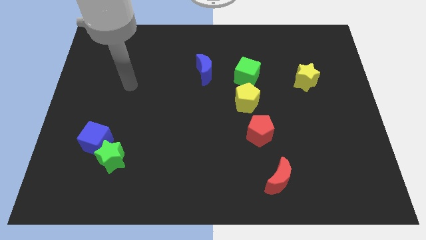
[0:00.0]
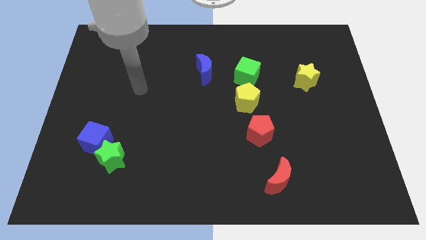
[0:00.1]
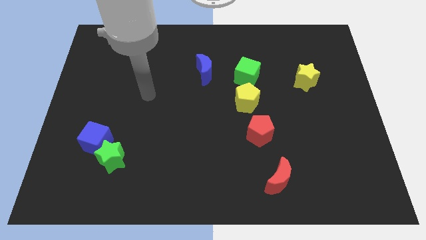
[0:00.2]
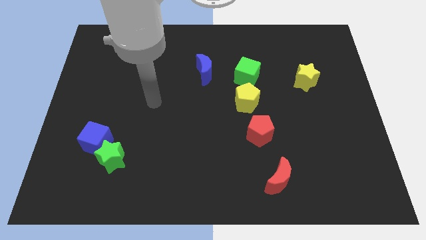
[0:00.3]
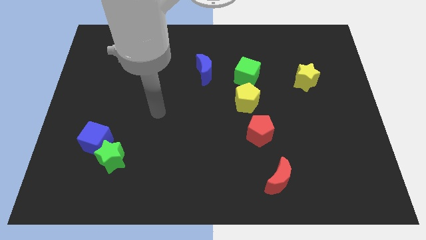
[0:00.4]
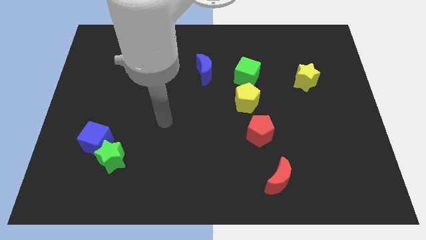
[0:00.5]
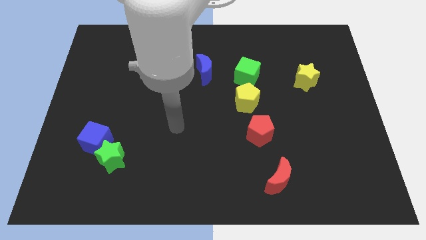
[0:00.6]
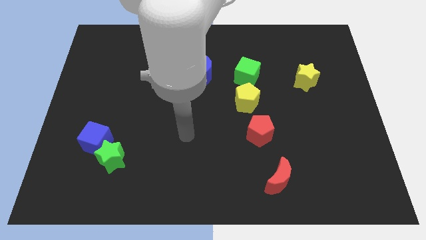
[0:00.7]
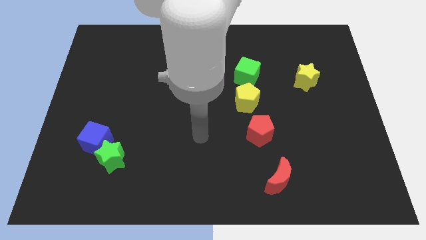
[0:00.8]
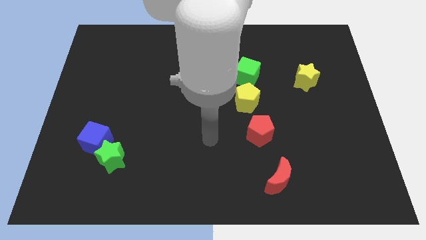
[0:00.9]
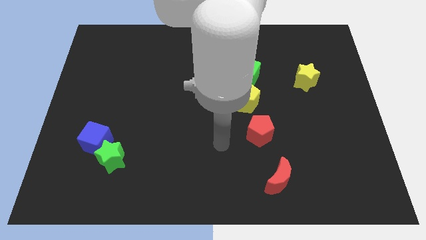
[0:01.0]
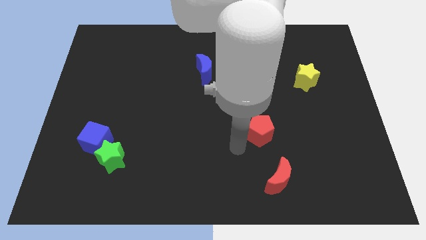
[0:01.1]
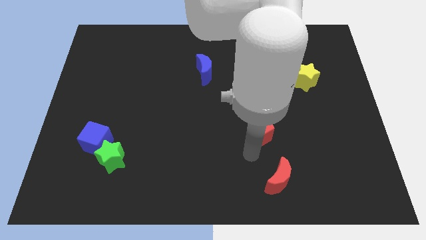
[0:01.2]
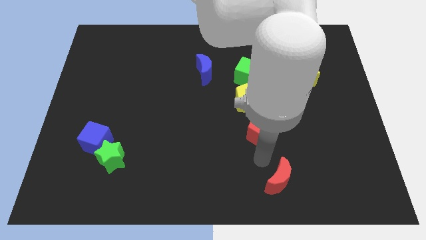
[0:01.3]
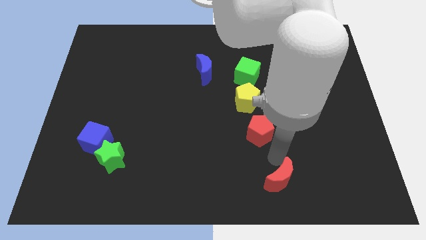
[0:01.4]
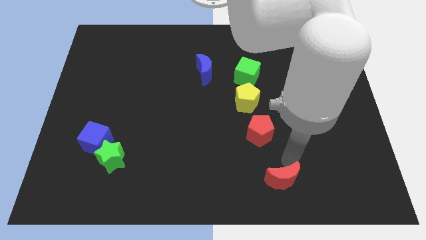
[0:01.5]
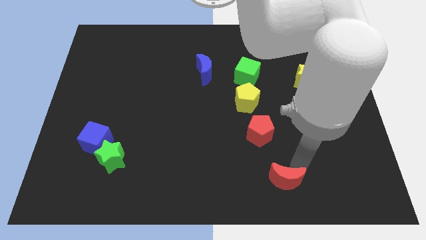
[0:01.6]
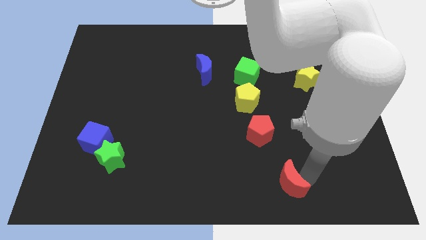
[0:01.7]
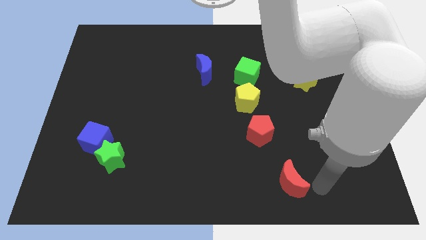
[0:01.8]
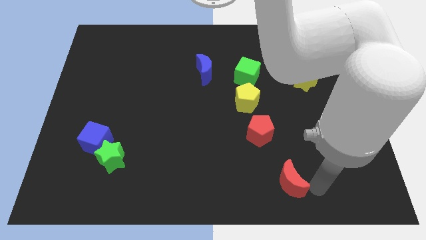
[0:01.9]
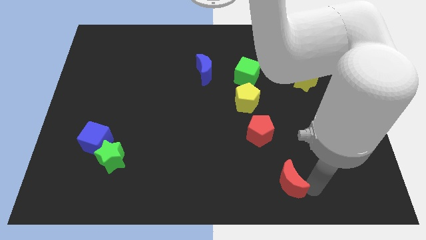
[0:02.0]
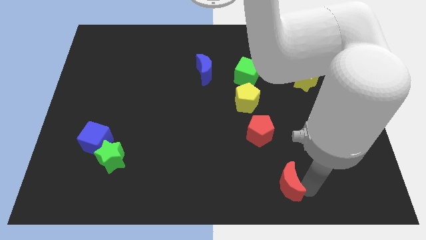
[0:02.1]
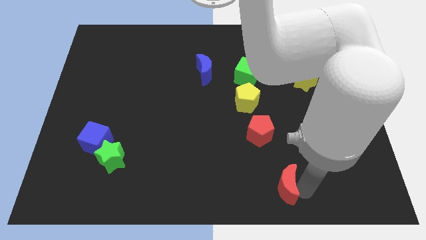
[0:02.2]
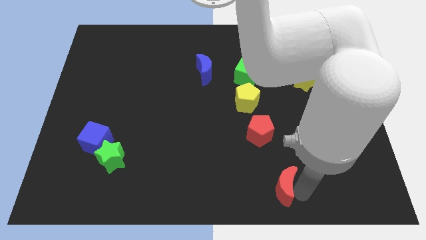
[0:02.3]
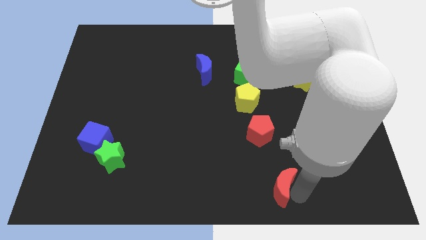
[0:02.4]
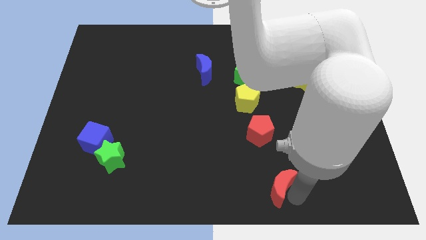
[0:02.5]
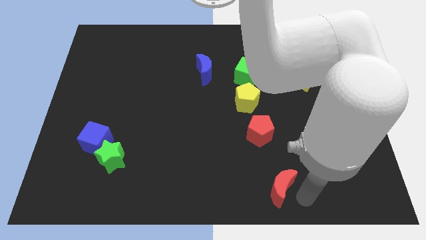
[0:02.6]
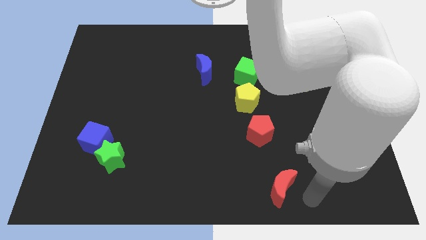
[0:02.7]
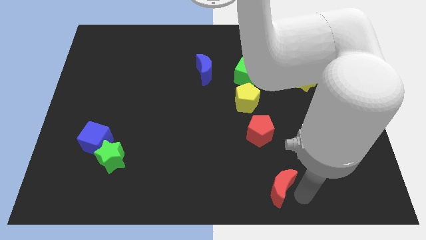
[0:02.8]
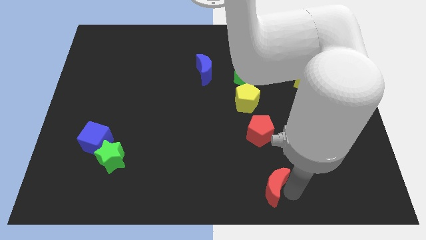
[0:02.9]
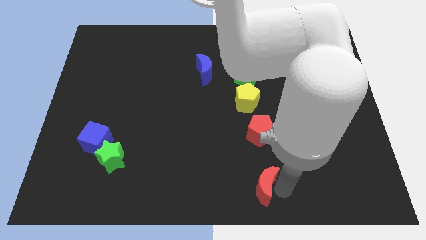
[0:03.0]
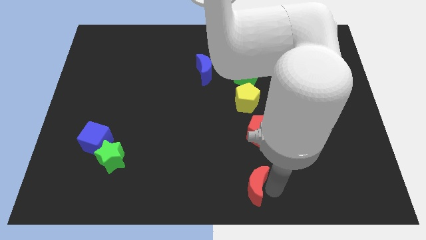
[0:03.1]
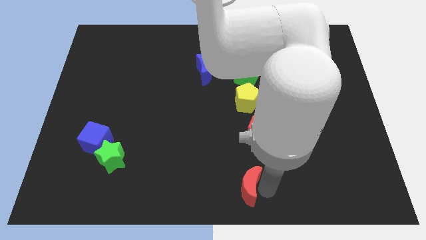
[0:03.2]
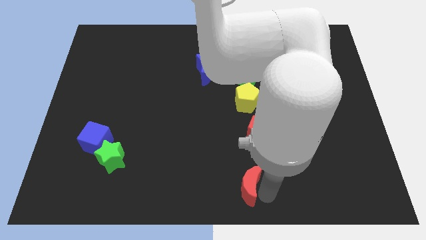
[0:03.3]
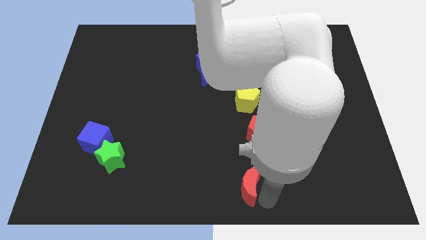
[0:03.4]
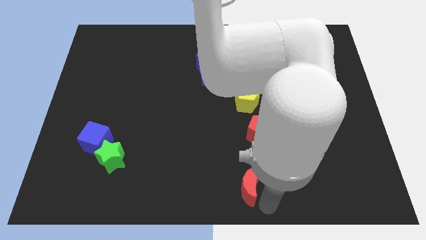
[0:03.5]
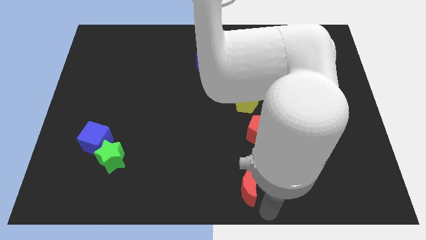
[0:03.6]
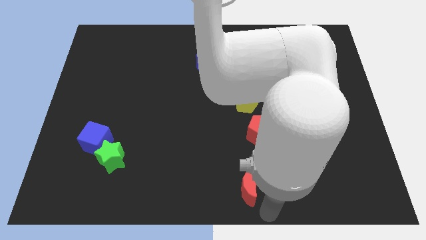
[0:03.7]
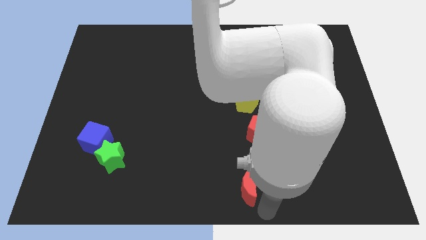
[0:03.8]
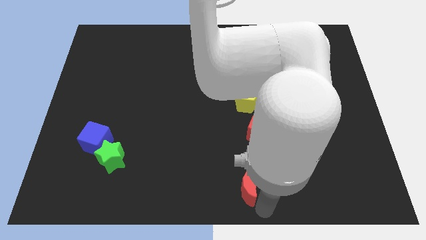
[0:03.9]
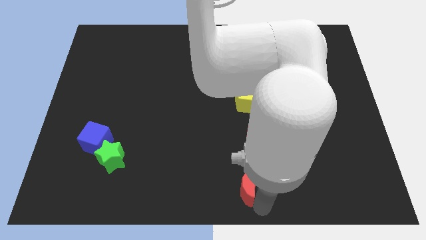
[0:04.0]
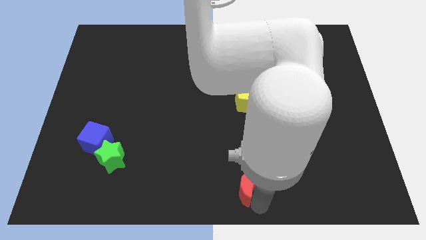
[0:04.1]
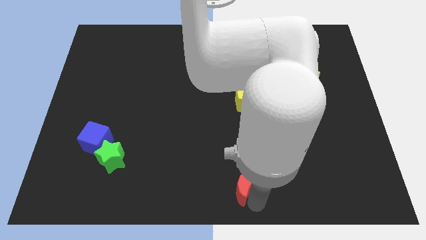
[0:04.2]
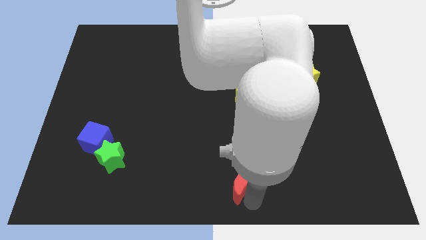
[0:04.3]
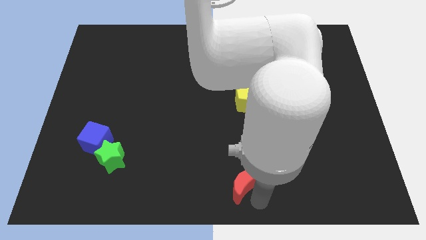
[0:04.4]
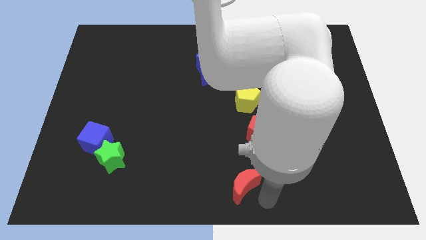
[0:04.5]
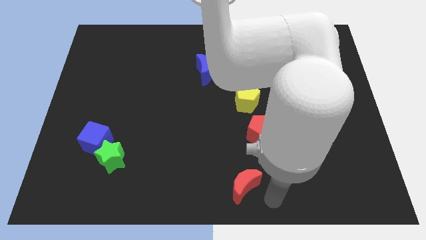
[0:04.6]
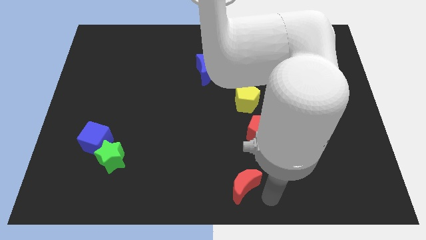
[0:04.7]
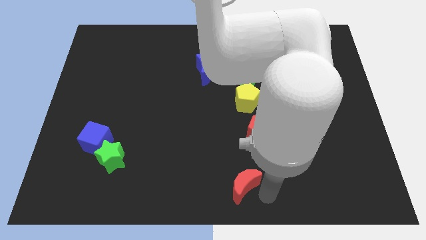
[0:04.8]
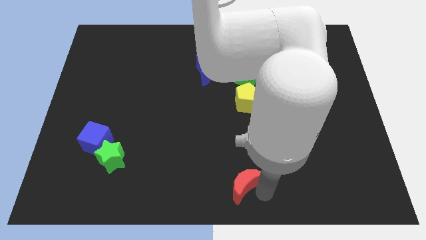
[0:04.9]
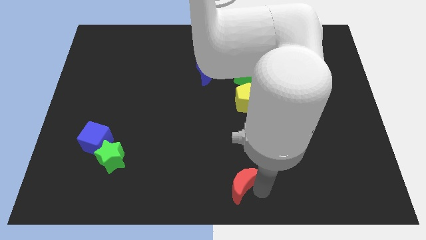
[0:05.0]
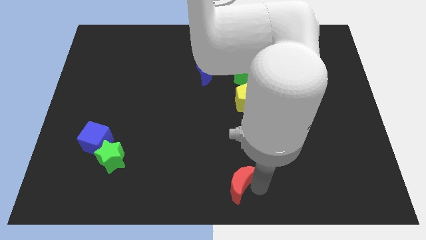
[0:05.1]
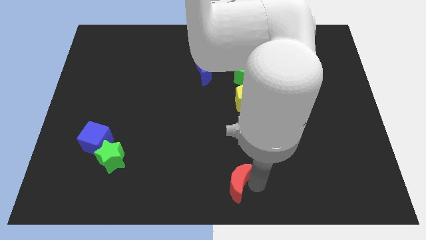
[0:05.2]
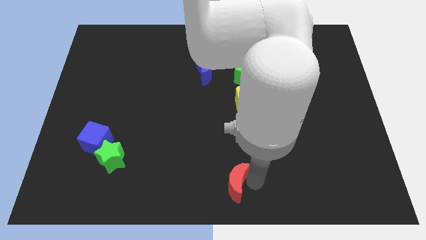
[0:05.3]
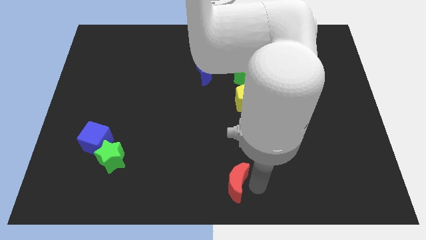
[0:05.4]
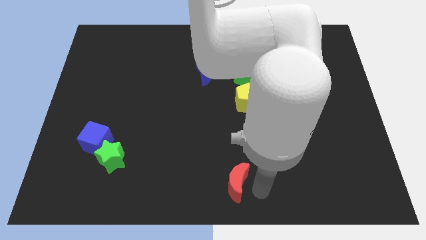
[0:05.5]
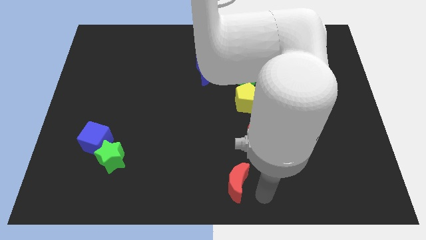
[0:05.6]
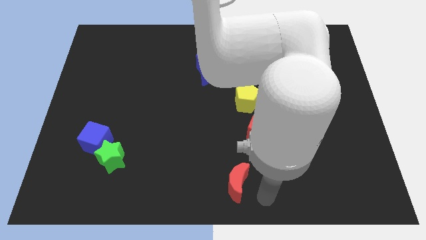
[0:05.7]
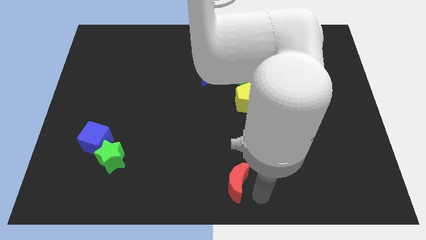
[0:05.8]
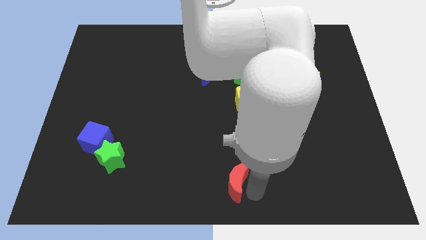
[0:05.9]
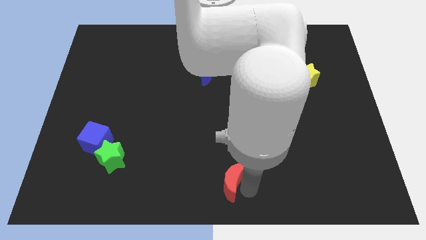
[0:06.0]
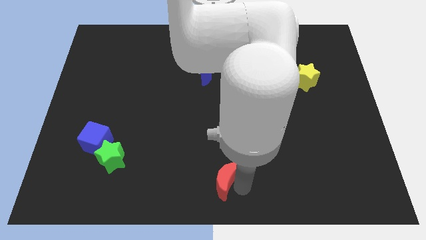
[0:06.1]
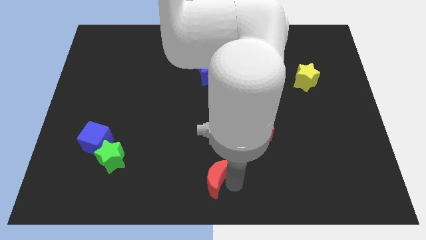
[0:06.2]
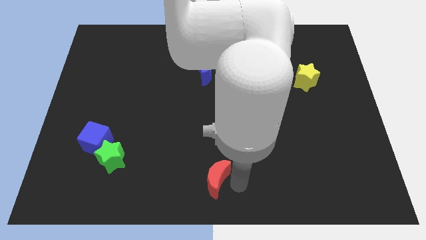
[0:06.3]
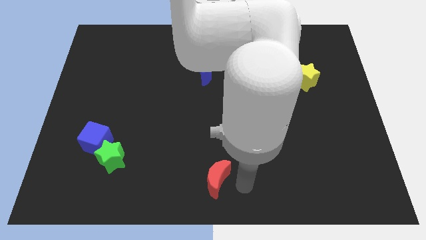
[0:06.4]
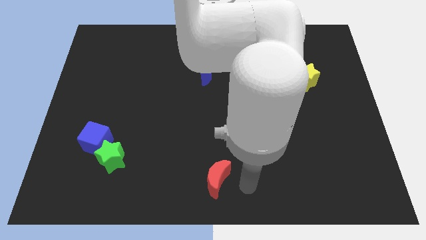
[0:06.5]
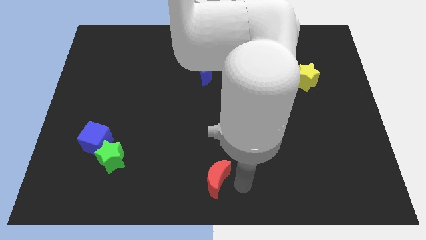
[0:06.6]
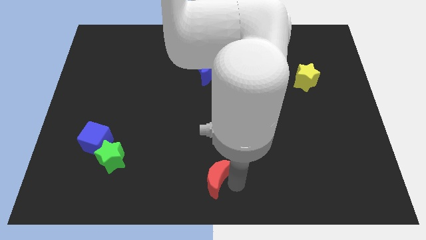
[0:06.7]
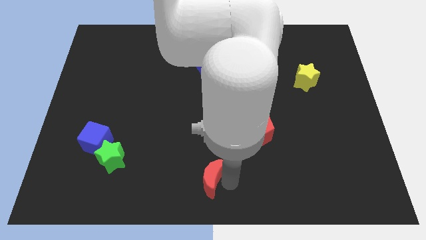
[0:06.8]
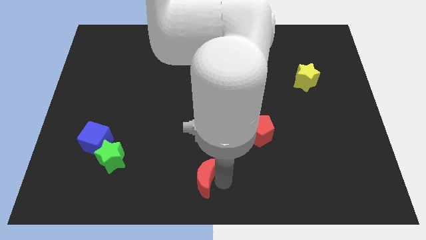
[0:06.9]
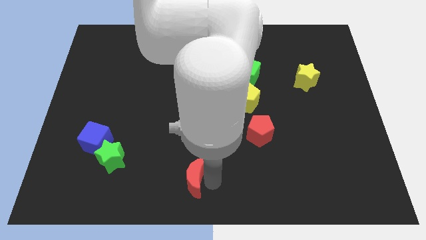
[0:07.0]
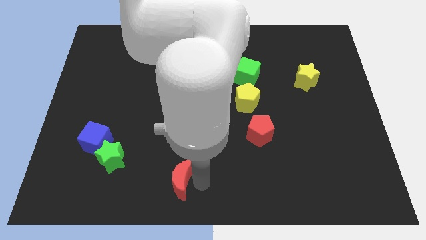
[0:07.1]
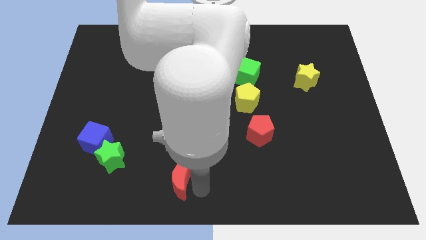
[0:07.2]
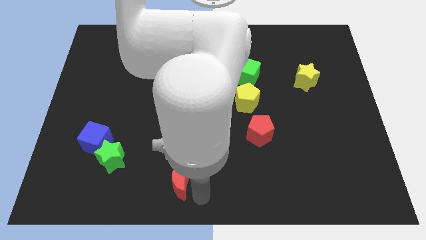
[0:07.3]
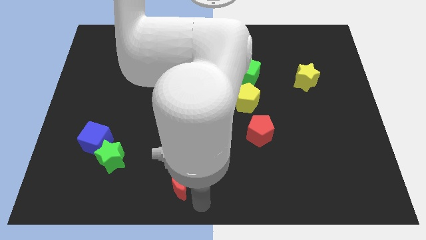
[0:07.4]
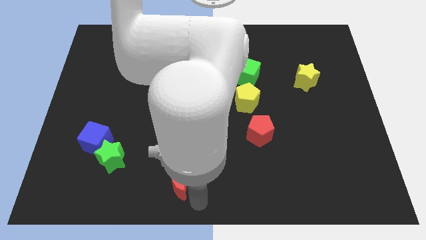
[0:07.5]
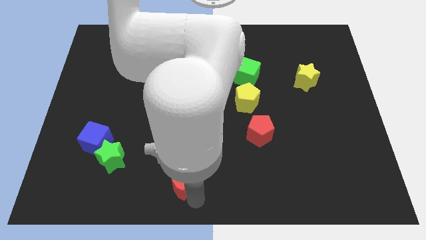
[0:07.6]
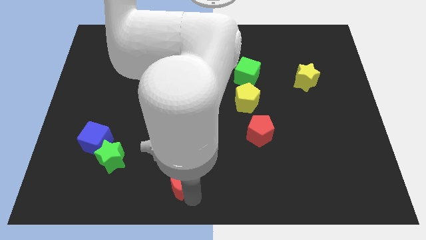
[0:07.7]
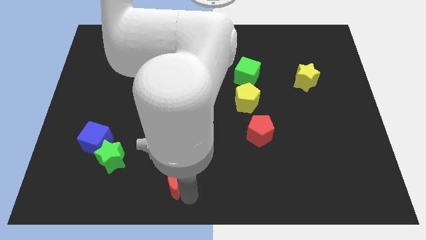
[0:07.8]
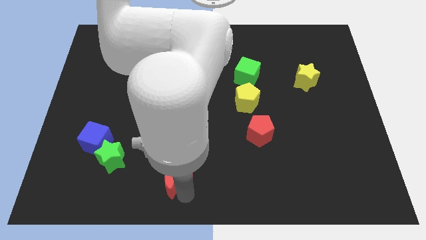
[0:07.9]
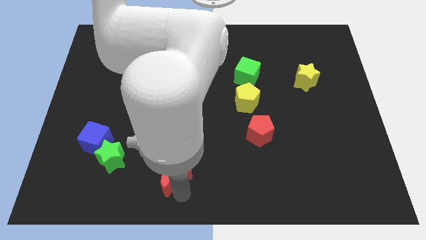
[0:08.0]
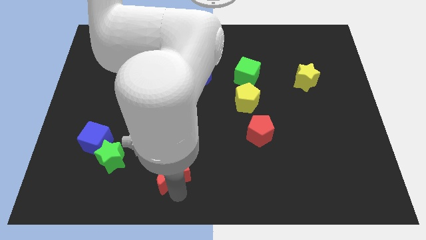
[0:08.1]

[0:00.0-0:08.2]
put the red moon to the right side of the green star
